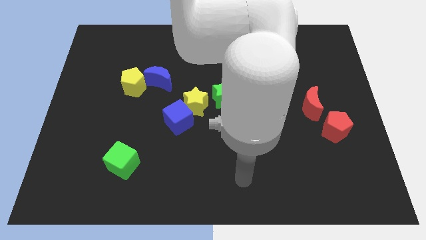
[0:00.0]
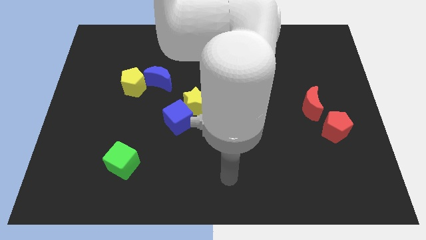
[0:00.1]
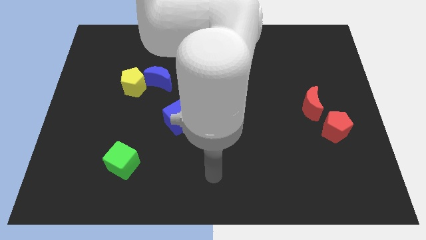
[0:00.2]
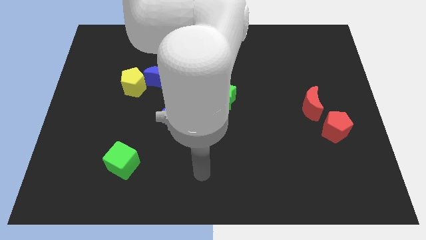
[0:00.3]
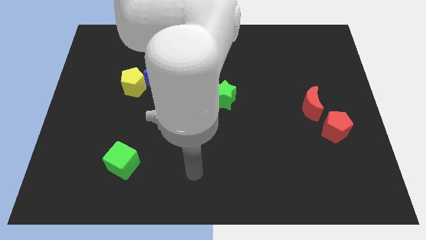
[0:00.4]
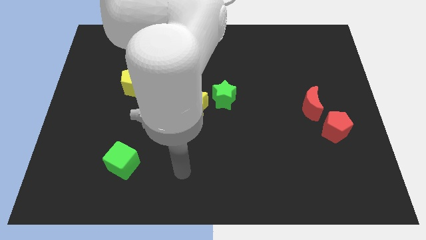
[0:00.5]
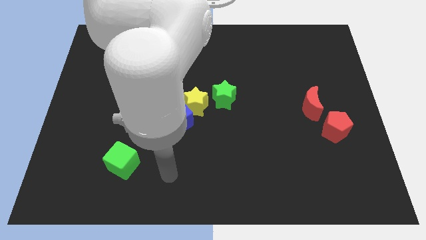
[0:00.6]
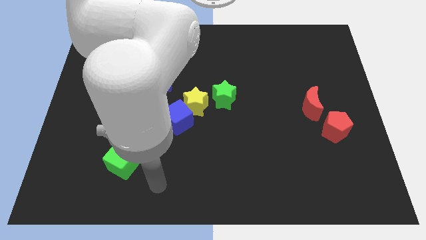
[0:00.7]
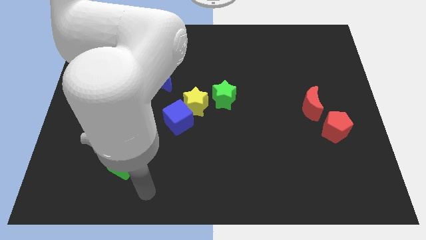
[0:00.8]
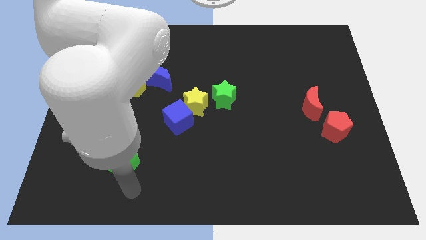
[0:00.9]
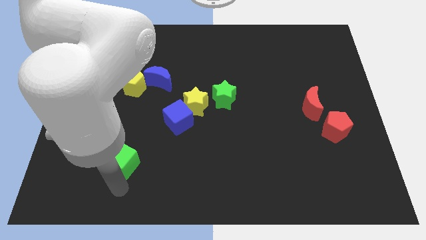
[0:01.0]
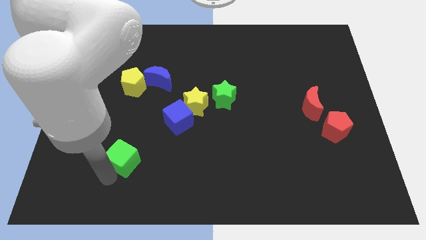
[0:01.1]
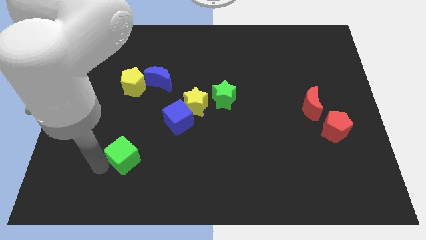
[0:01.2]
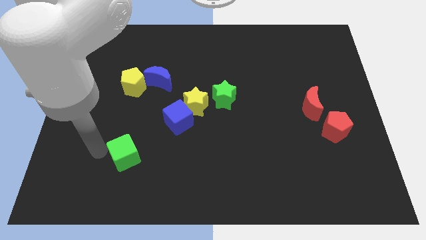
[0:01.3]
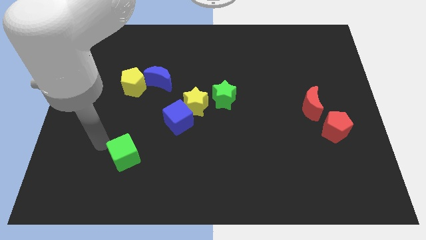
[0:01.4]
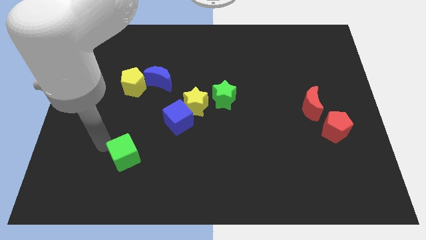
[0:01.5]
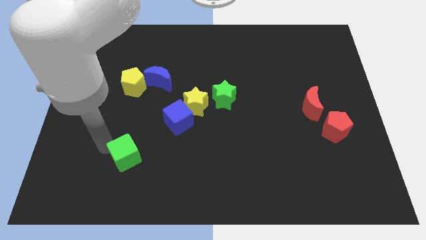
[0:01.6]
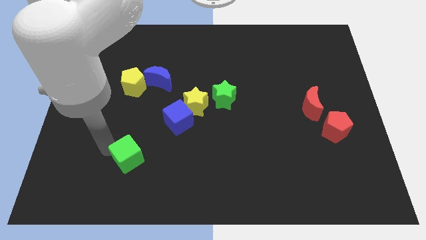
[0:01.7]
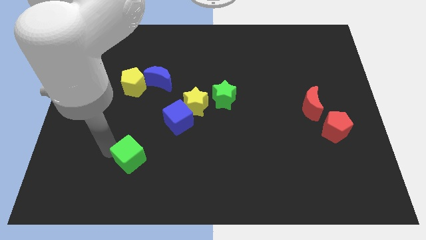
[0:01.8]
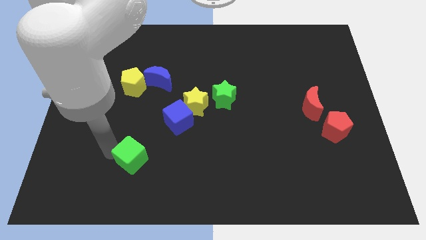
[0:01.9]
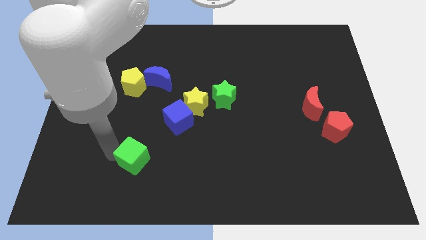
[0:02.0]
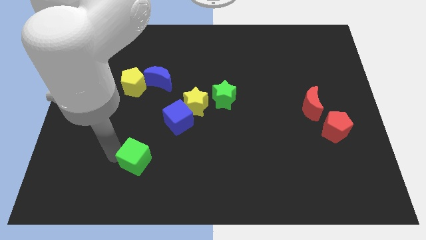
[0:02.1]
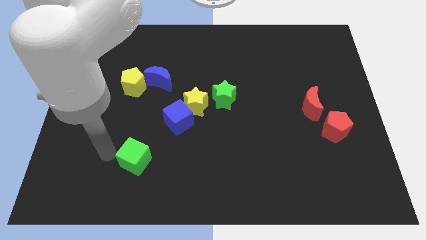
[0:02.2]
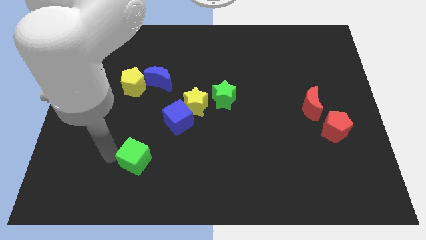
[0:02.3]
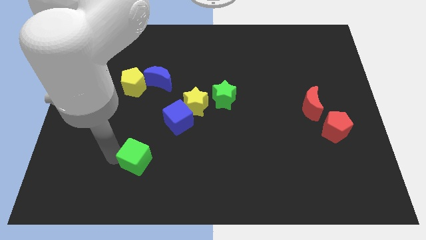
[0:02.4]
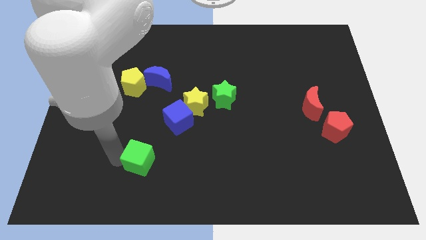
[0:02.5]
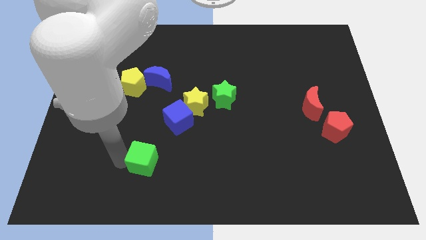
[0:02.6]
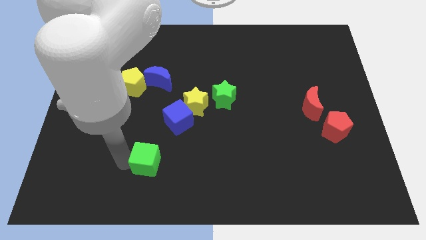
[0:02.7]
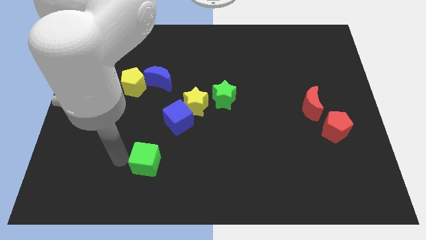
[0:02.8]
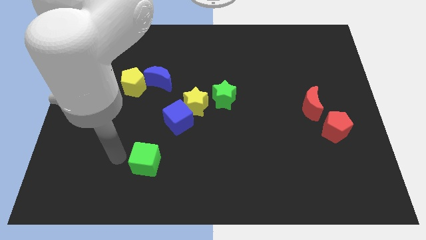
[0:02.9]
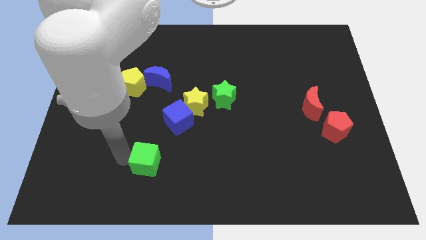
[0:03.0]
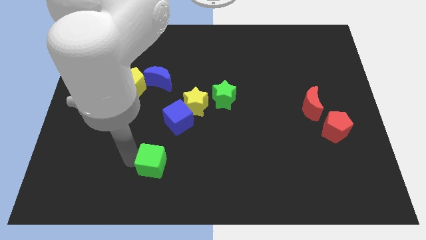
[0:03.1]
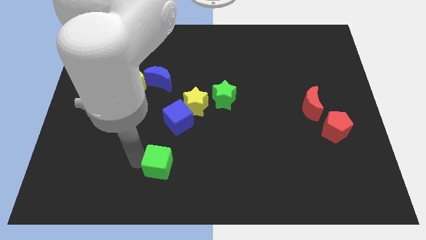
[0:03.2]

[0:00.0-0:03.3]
move the green cube a little bit to the right

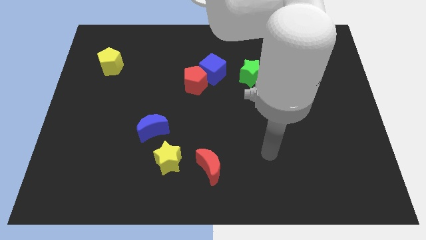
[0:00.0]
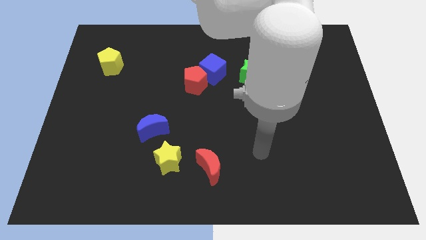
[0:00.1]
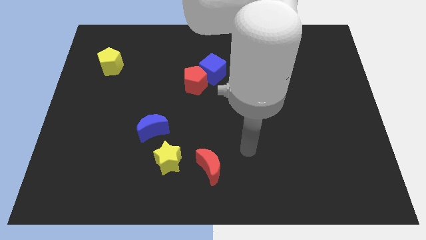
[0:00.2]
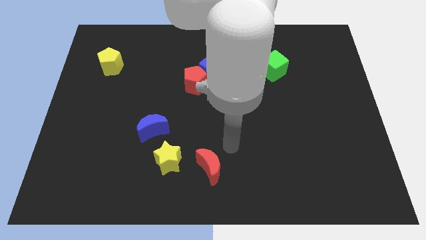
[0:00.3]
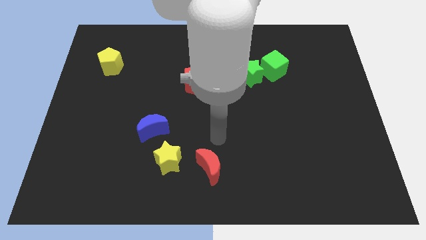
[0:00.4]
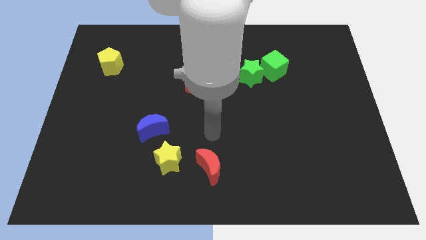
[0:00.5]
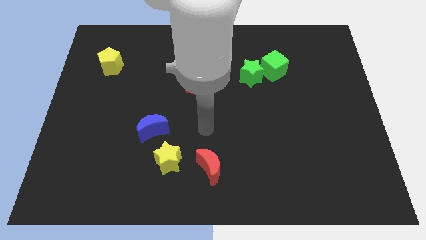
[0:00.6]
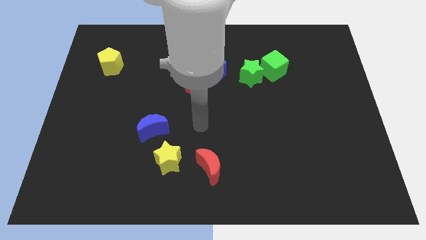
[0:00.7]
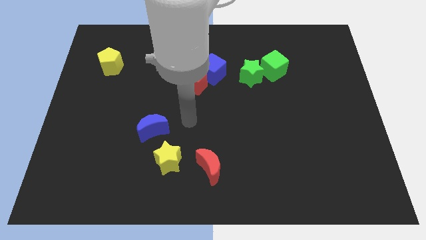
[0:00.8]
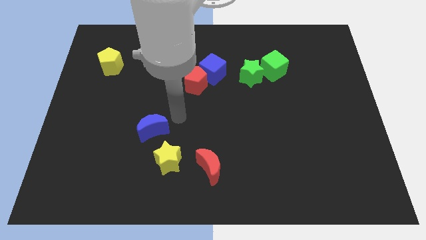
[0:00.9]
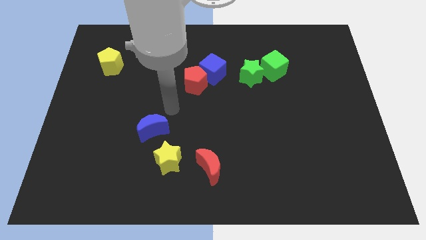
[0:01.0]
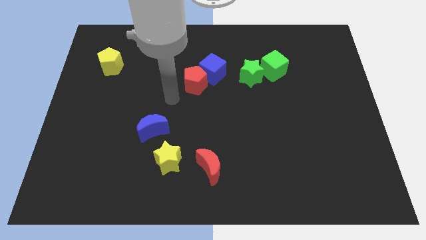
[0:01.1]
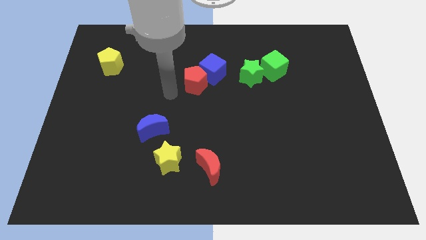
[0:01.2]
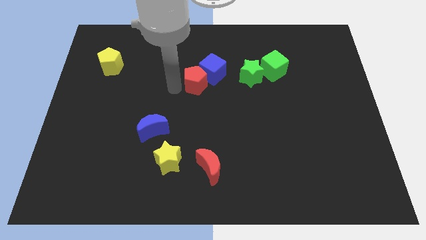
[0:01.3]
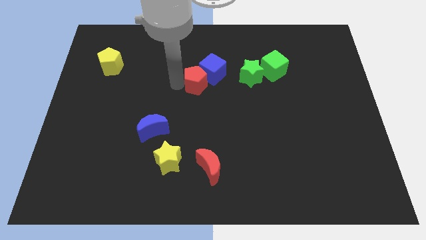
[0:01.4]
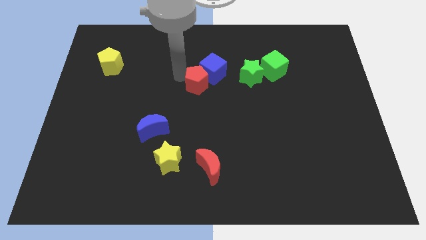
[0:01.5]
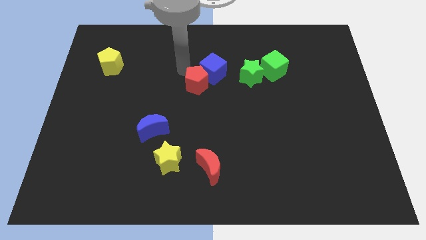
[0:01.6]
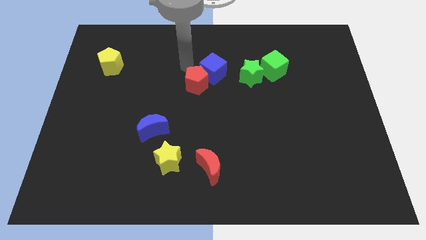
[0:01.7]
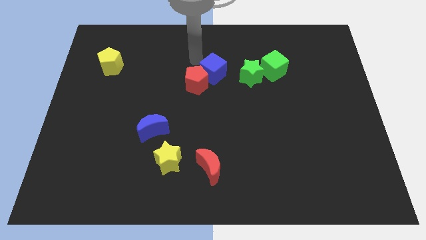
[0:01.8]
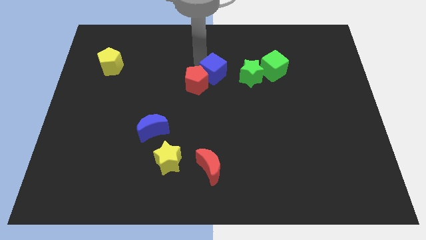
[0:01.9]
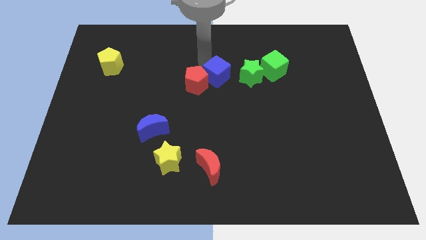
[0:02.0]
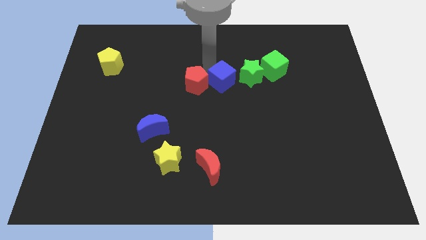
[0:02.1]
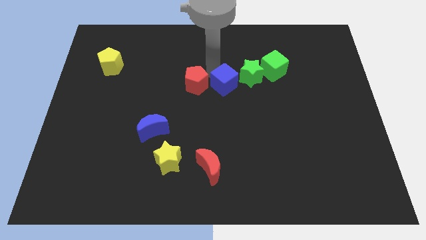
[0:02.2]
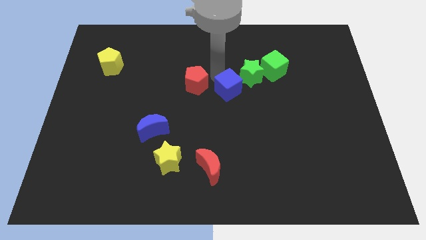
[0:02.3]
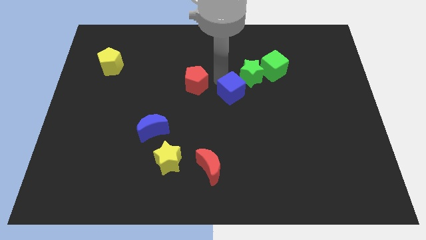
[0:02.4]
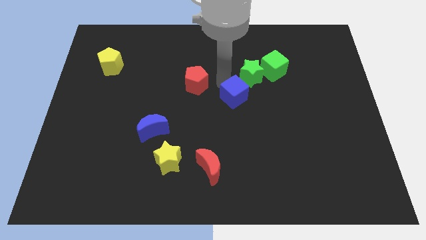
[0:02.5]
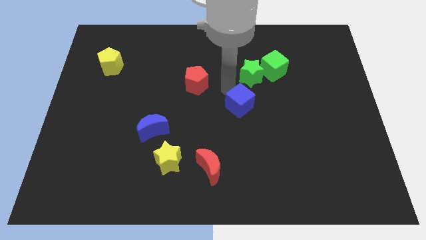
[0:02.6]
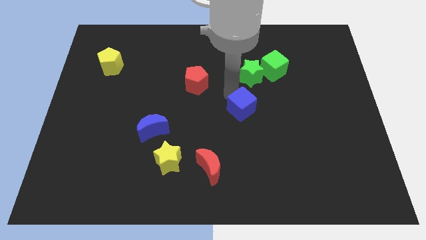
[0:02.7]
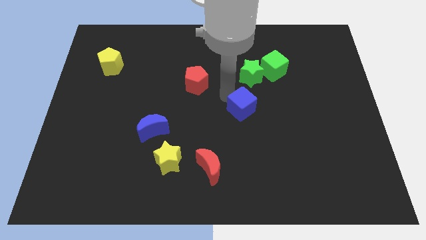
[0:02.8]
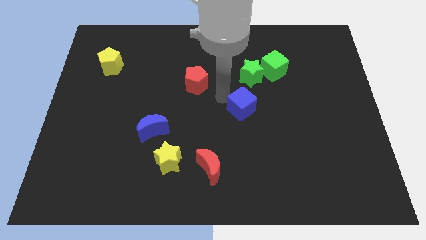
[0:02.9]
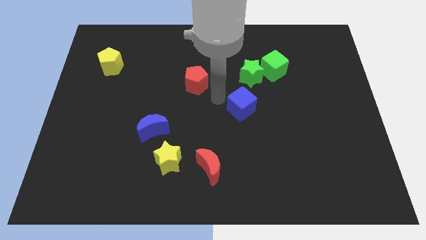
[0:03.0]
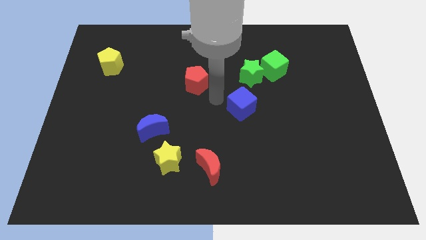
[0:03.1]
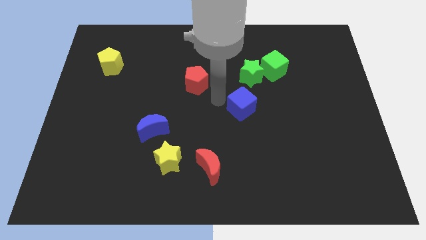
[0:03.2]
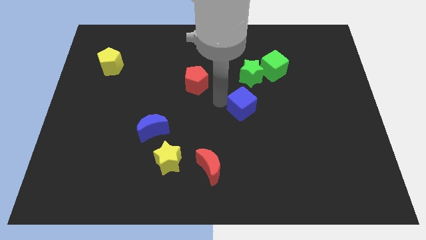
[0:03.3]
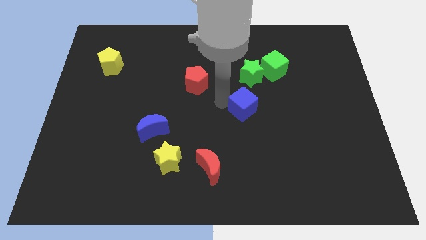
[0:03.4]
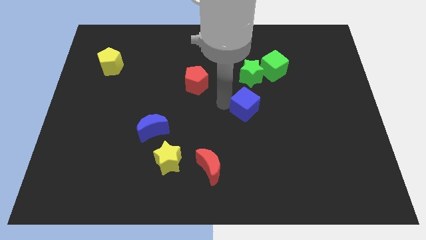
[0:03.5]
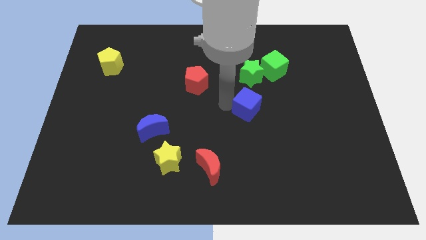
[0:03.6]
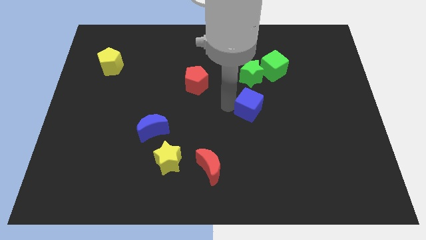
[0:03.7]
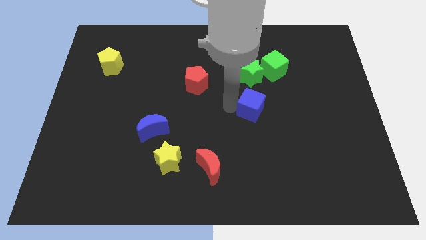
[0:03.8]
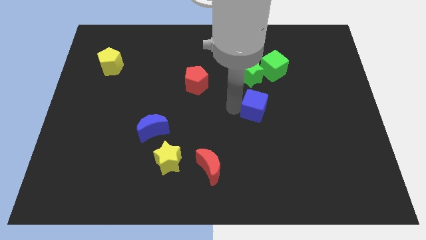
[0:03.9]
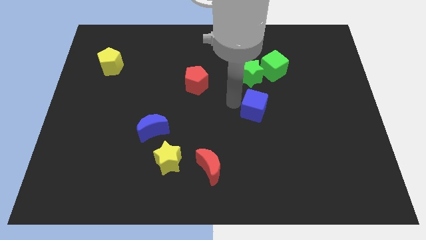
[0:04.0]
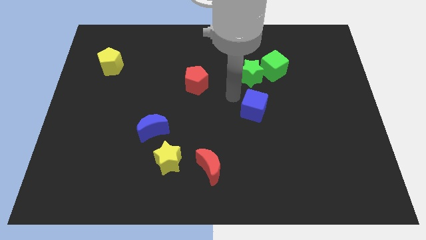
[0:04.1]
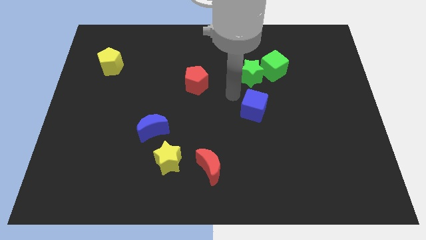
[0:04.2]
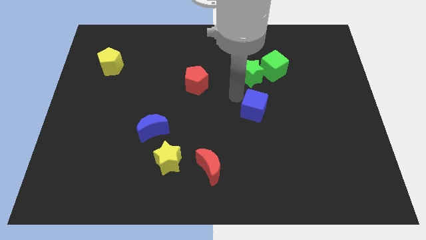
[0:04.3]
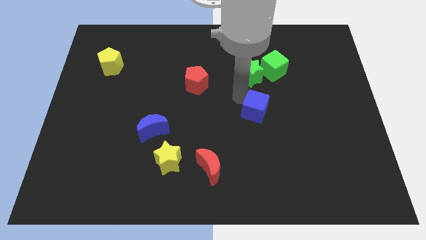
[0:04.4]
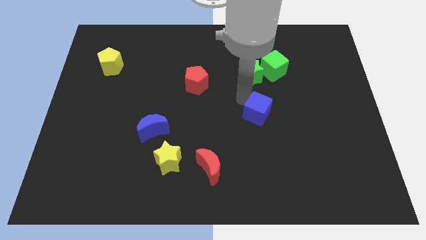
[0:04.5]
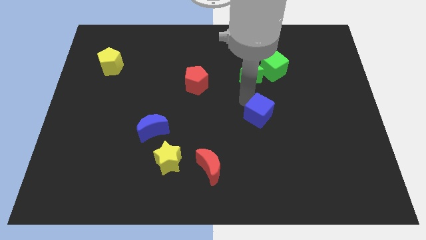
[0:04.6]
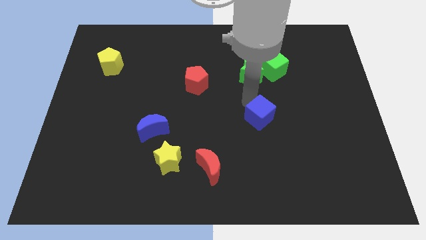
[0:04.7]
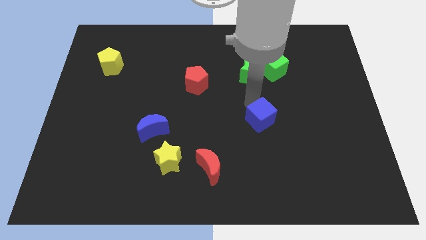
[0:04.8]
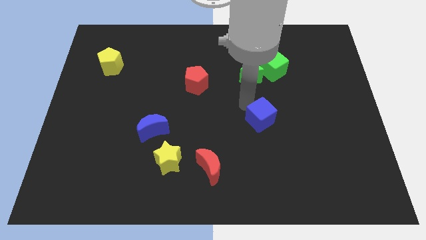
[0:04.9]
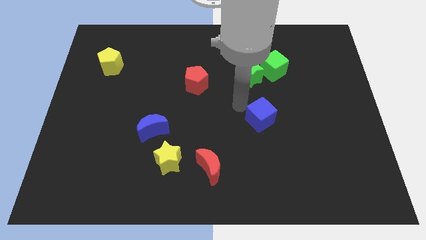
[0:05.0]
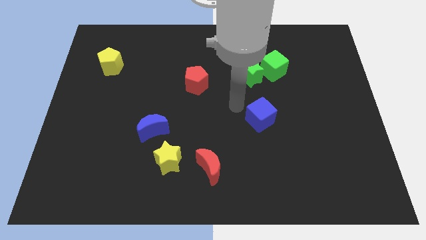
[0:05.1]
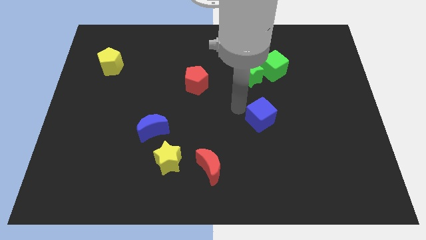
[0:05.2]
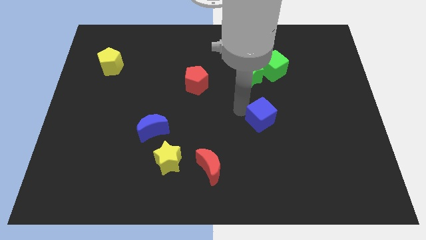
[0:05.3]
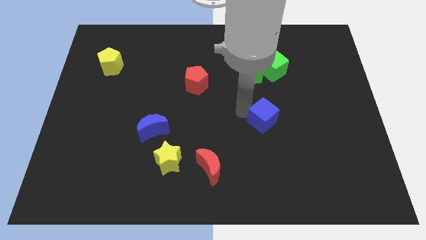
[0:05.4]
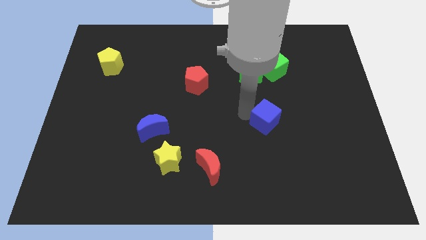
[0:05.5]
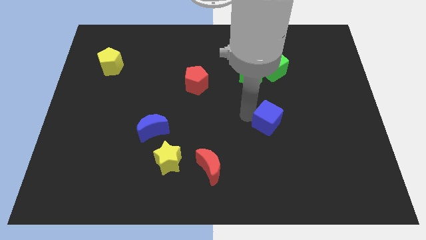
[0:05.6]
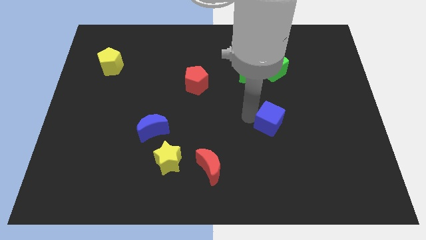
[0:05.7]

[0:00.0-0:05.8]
slide the blue cube downwards and to the right
